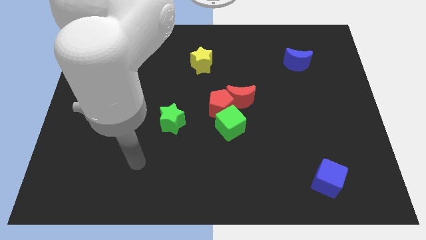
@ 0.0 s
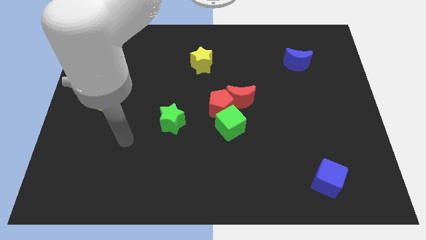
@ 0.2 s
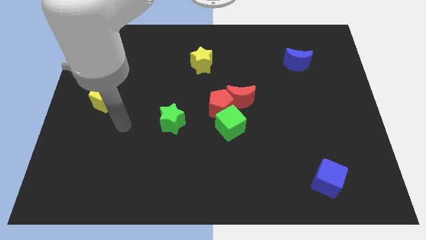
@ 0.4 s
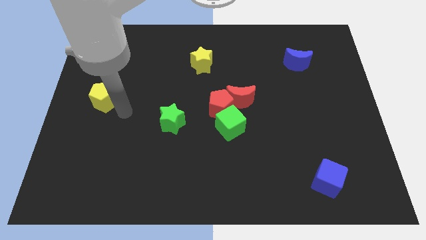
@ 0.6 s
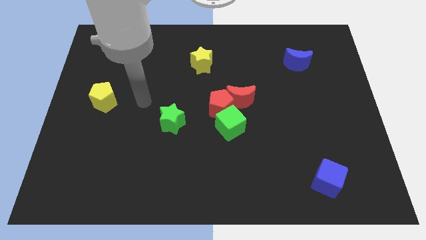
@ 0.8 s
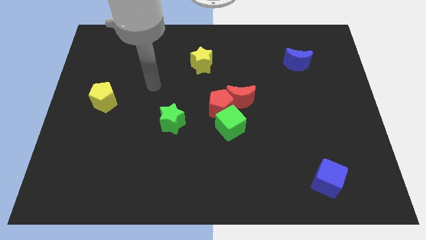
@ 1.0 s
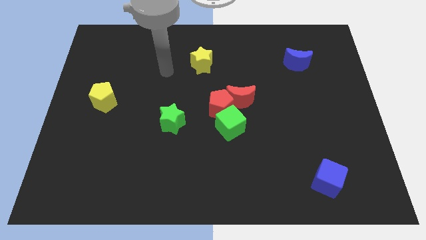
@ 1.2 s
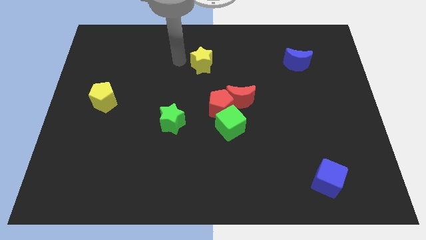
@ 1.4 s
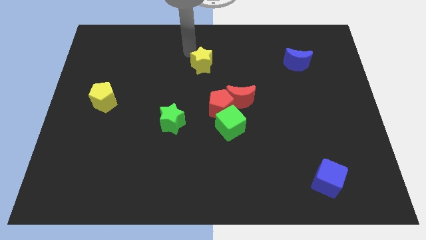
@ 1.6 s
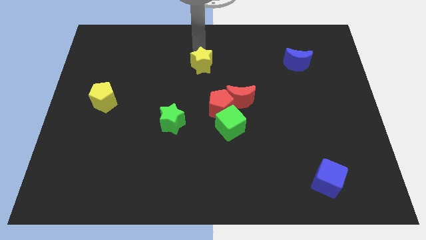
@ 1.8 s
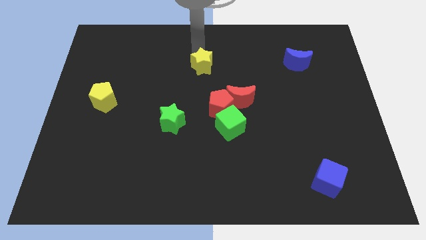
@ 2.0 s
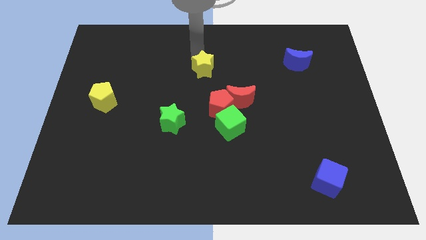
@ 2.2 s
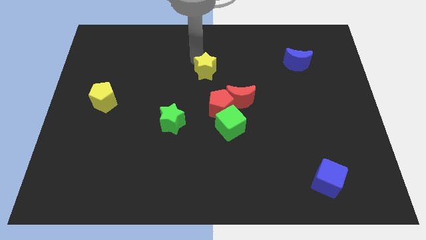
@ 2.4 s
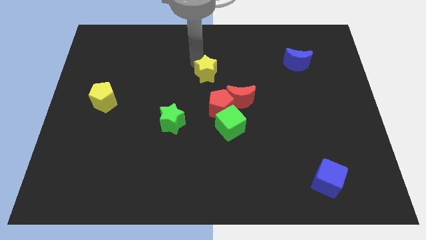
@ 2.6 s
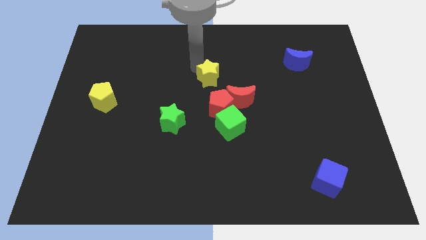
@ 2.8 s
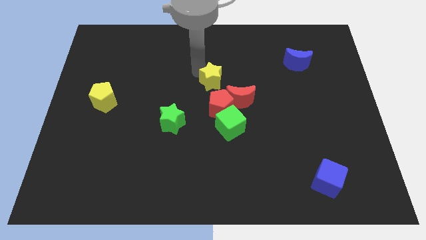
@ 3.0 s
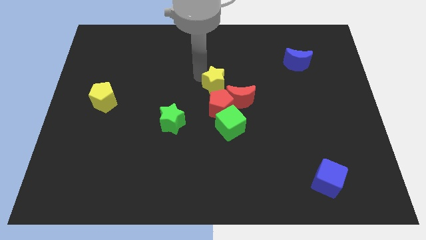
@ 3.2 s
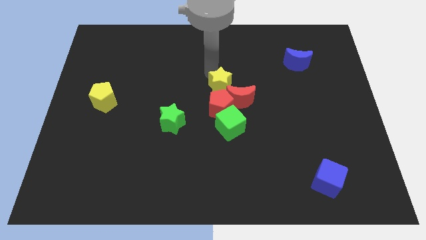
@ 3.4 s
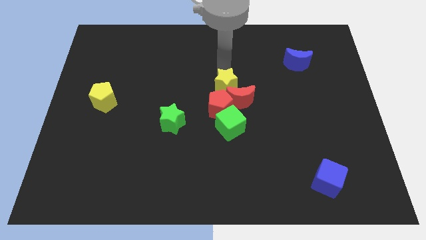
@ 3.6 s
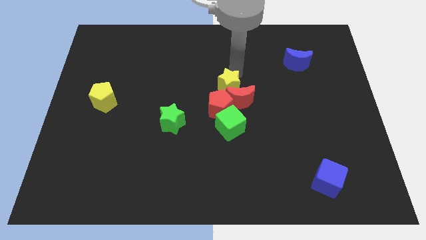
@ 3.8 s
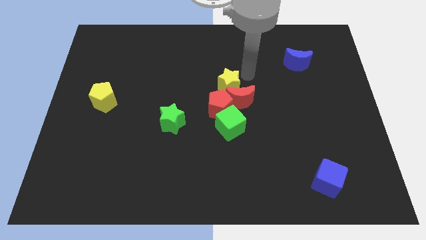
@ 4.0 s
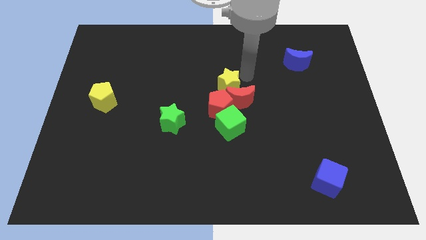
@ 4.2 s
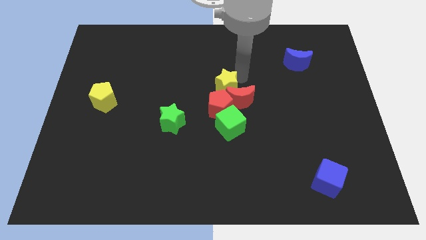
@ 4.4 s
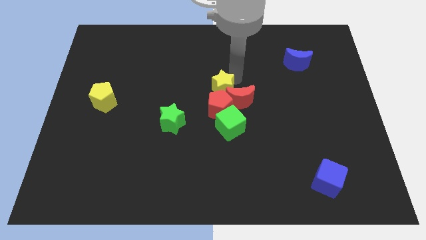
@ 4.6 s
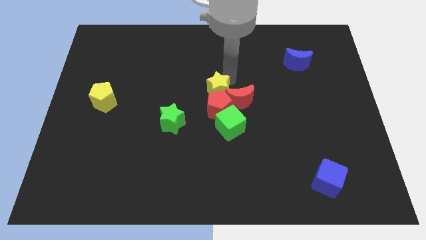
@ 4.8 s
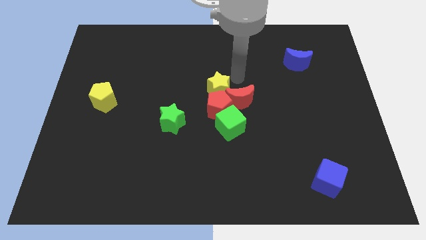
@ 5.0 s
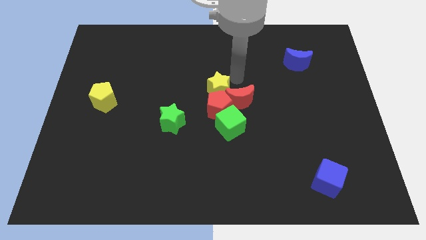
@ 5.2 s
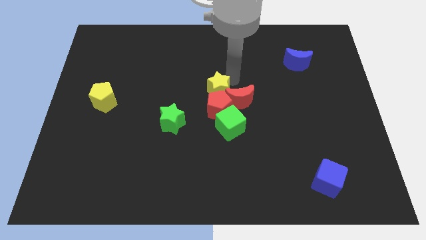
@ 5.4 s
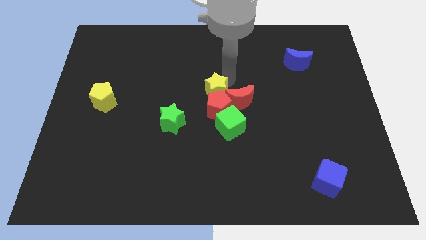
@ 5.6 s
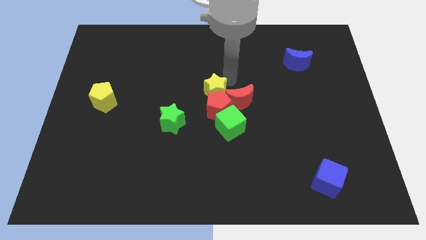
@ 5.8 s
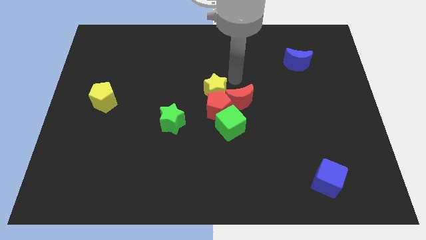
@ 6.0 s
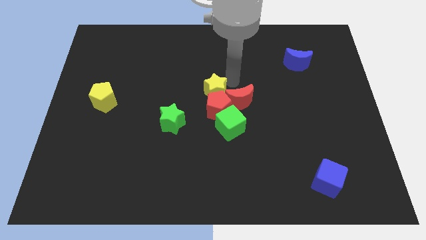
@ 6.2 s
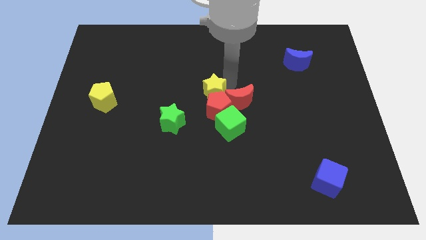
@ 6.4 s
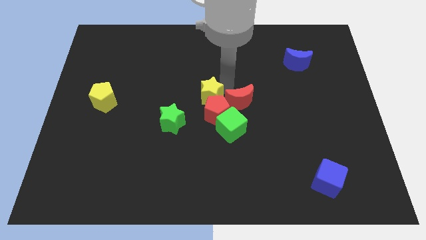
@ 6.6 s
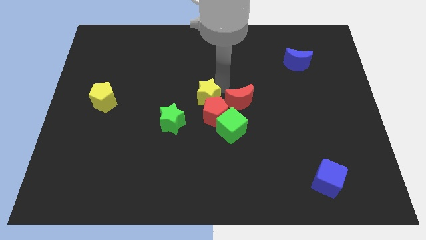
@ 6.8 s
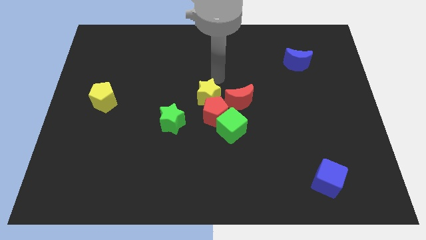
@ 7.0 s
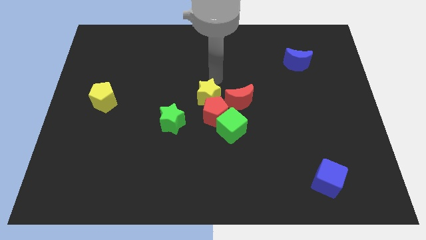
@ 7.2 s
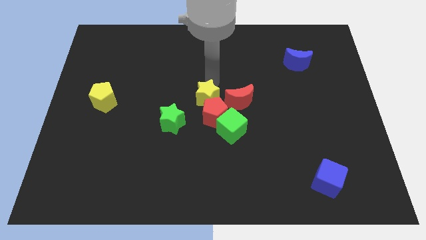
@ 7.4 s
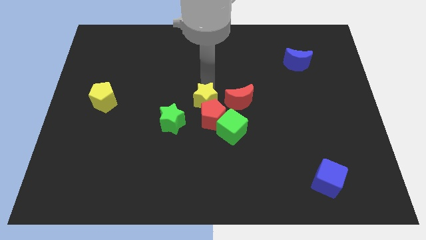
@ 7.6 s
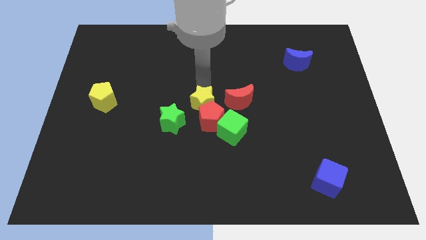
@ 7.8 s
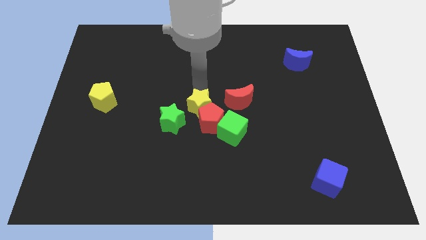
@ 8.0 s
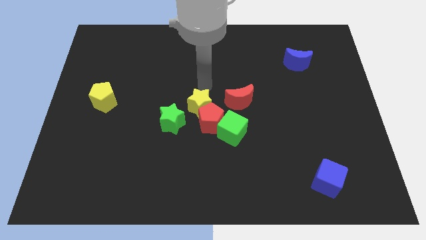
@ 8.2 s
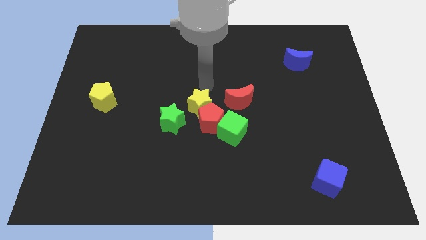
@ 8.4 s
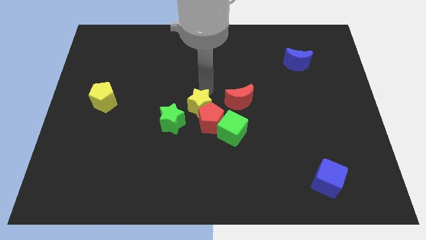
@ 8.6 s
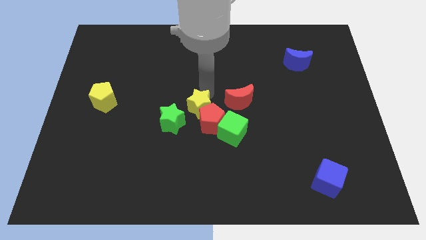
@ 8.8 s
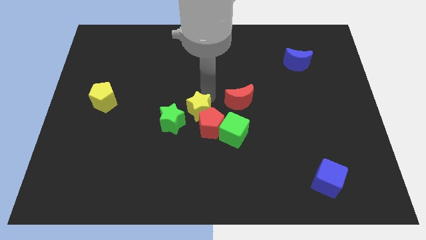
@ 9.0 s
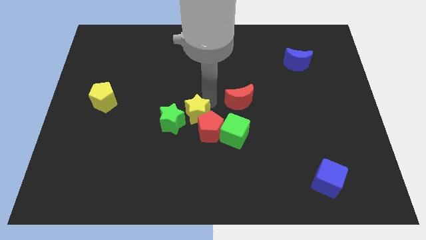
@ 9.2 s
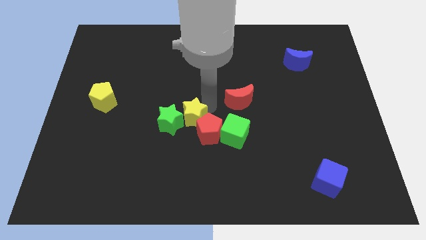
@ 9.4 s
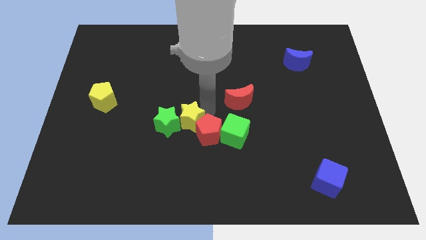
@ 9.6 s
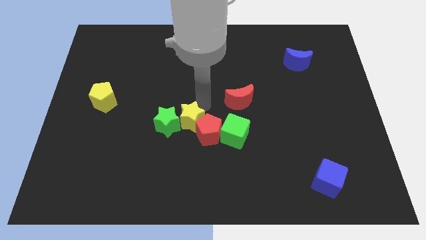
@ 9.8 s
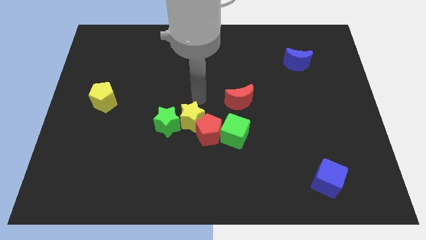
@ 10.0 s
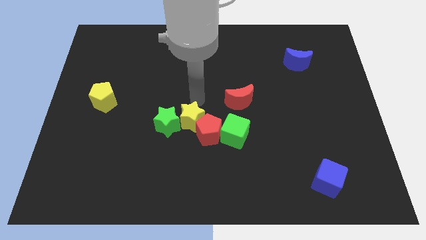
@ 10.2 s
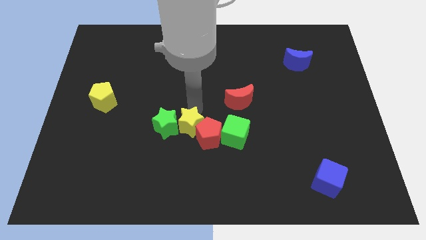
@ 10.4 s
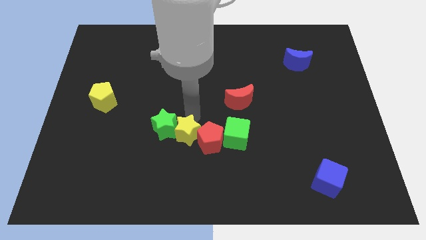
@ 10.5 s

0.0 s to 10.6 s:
slide the yellow star downwards

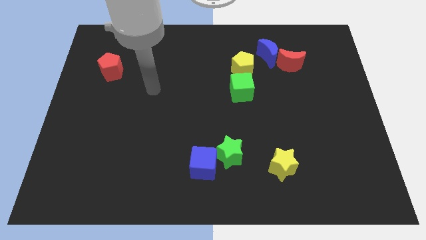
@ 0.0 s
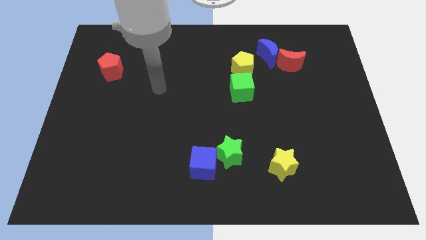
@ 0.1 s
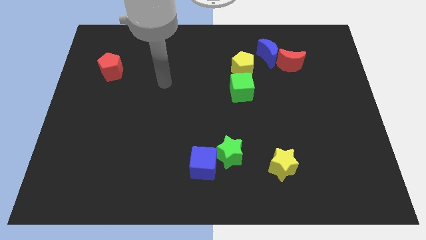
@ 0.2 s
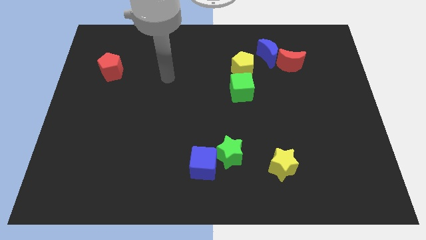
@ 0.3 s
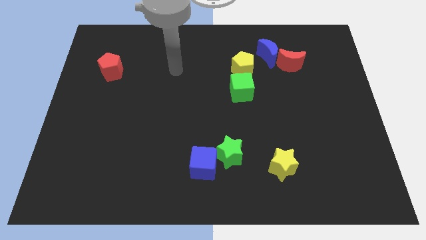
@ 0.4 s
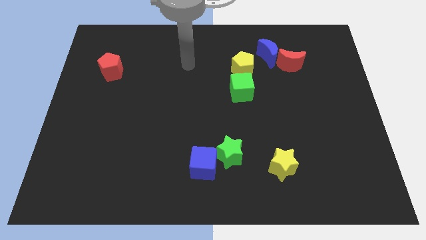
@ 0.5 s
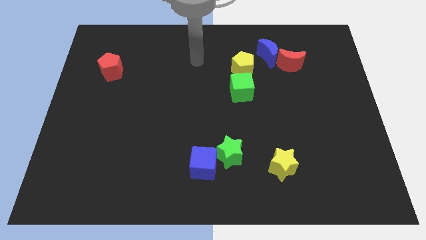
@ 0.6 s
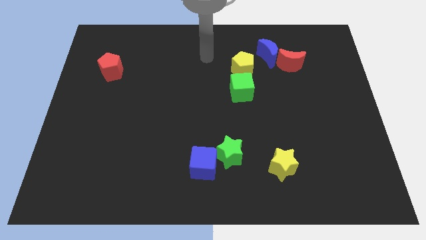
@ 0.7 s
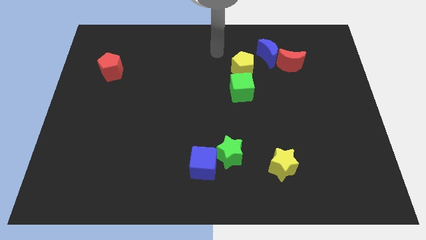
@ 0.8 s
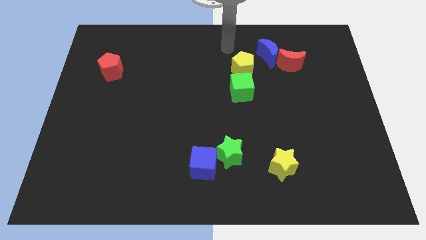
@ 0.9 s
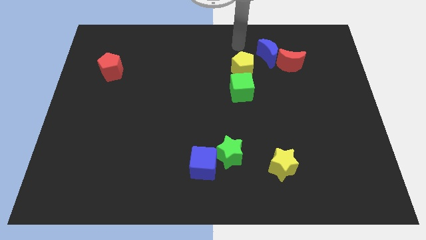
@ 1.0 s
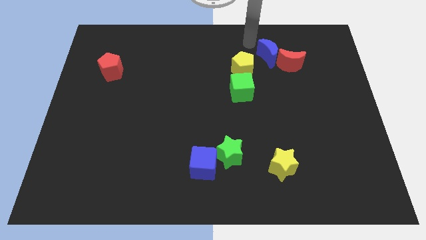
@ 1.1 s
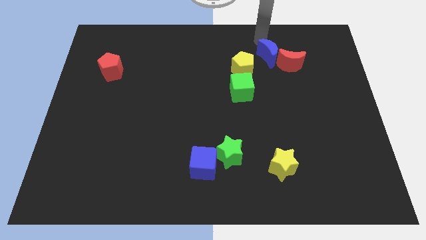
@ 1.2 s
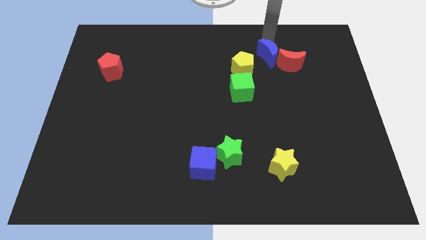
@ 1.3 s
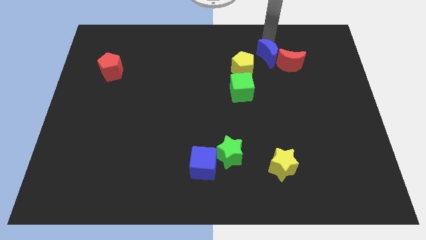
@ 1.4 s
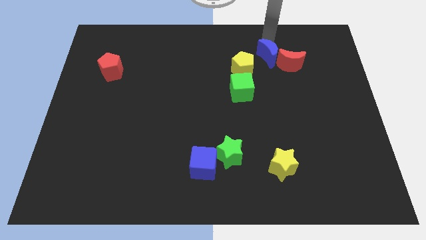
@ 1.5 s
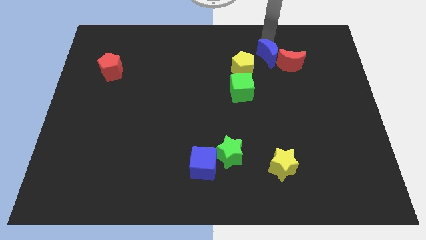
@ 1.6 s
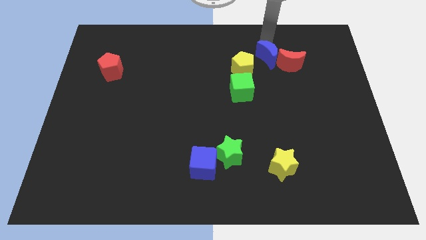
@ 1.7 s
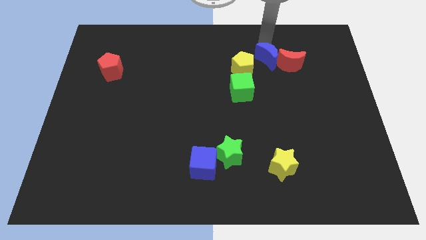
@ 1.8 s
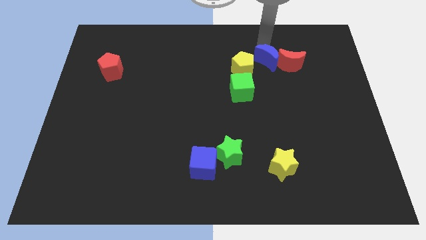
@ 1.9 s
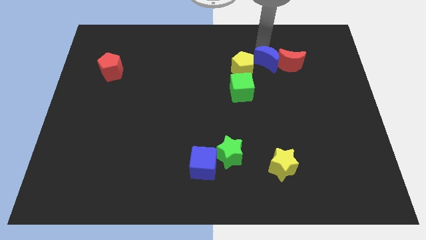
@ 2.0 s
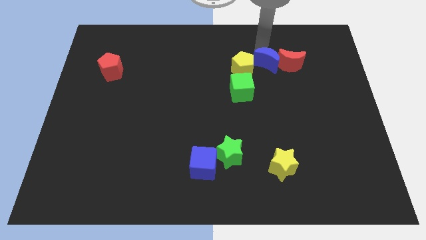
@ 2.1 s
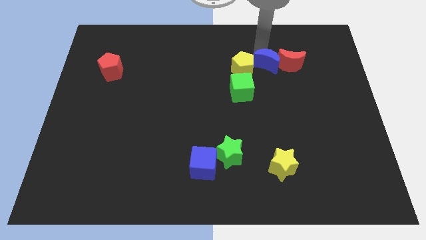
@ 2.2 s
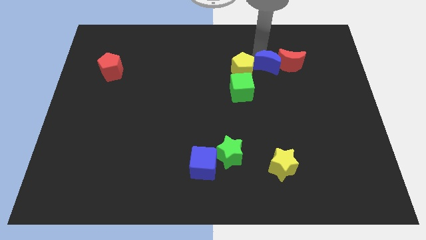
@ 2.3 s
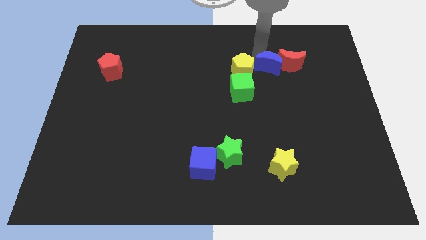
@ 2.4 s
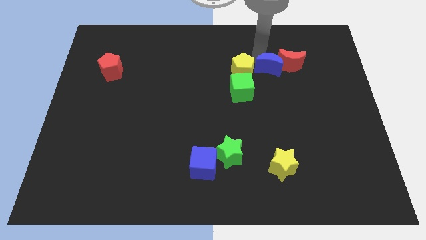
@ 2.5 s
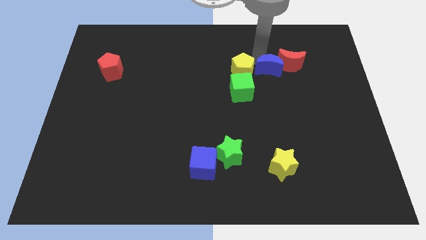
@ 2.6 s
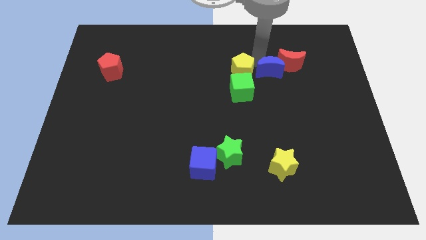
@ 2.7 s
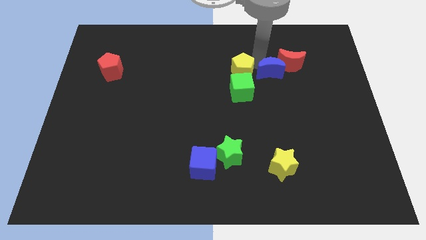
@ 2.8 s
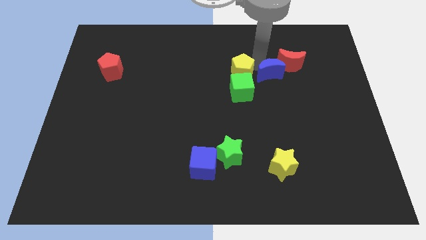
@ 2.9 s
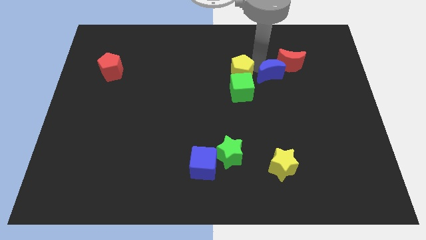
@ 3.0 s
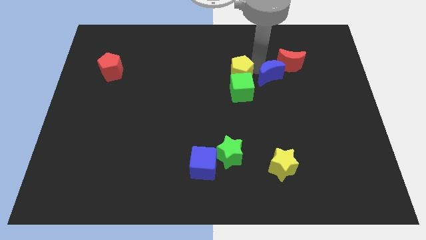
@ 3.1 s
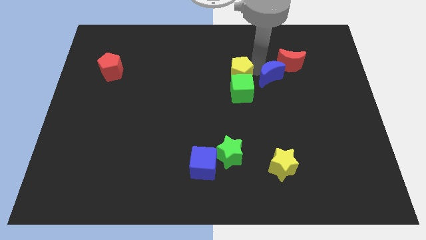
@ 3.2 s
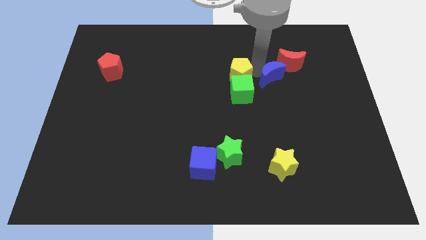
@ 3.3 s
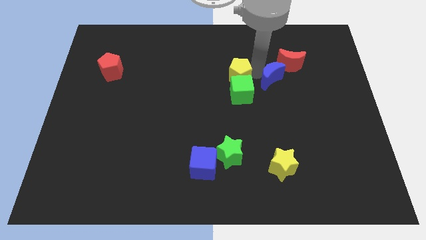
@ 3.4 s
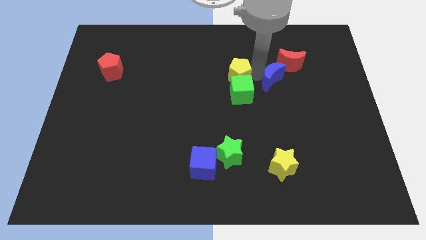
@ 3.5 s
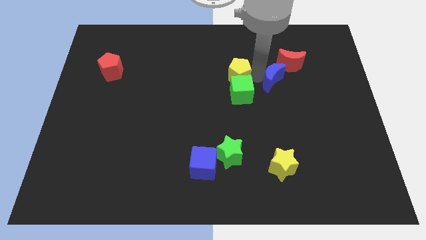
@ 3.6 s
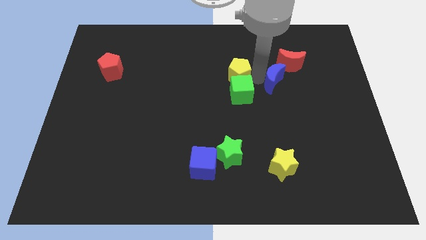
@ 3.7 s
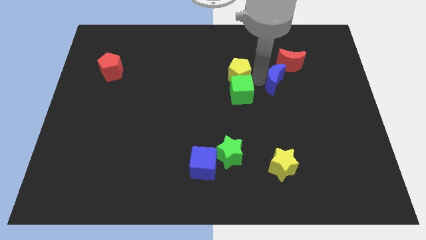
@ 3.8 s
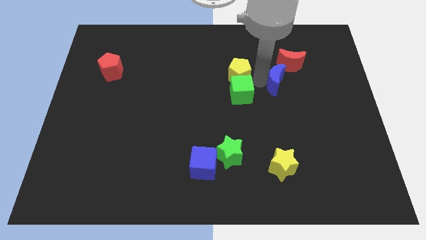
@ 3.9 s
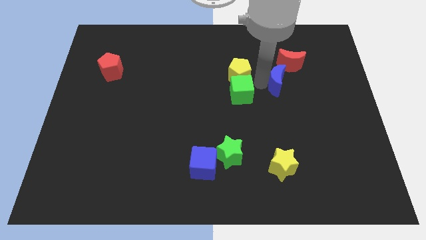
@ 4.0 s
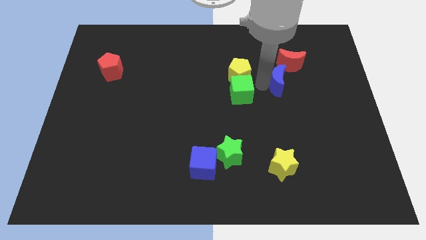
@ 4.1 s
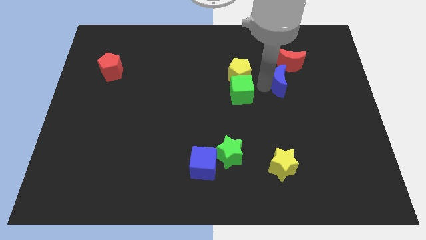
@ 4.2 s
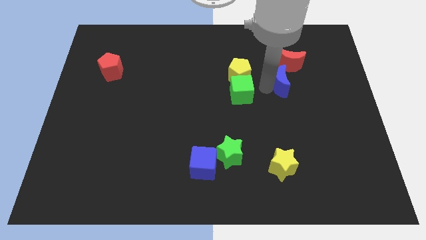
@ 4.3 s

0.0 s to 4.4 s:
slightly move the blue moon downwards and right diagonally
